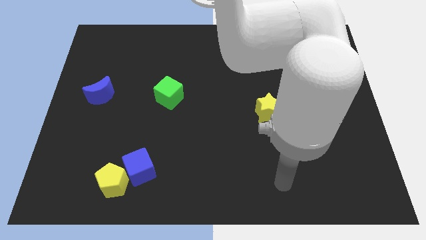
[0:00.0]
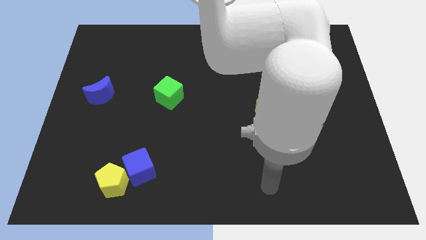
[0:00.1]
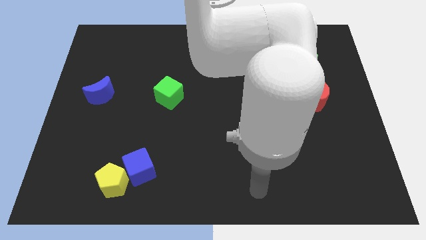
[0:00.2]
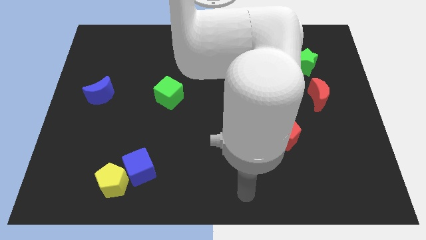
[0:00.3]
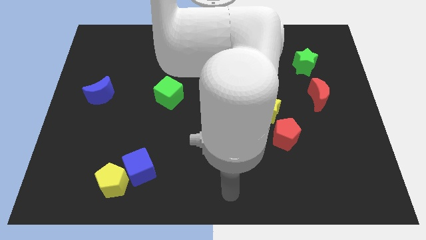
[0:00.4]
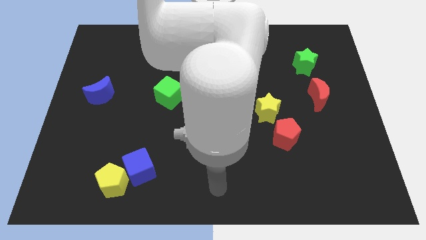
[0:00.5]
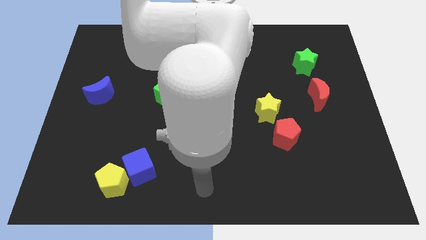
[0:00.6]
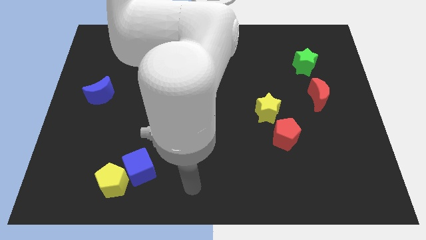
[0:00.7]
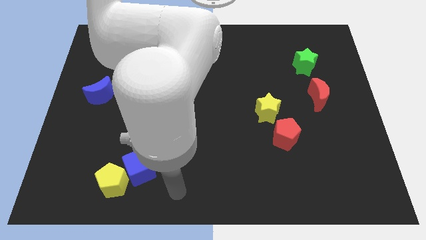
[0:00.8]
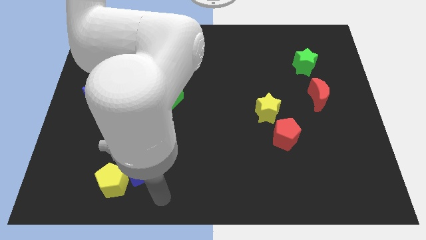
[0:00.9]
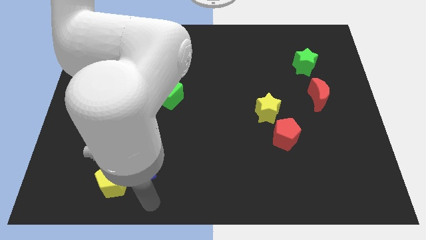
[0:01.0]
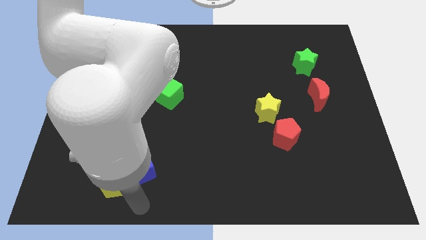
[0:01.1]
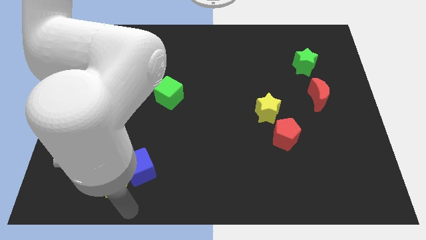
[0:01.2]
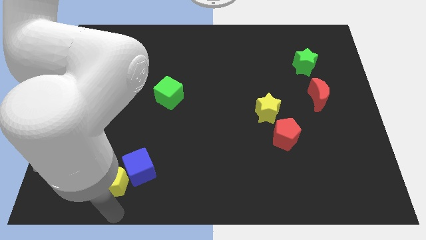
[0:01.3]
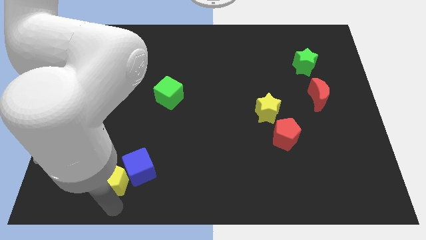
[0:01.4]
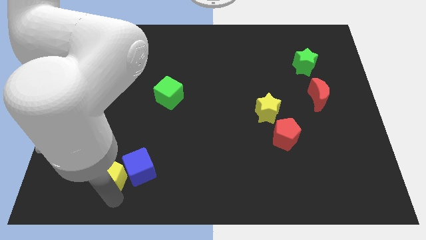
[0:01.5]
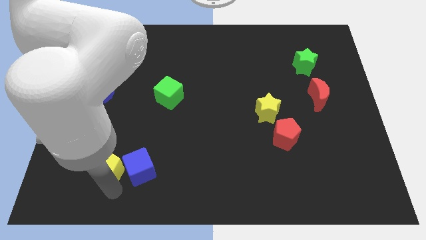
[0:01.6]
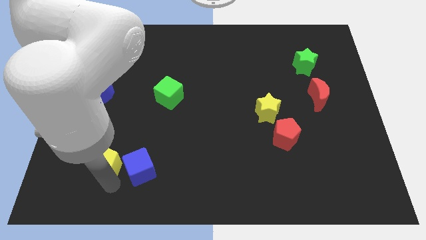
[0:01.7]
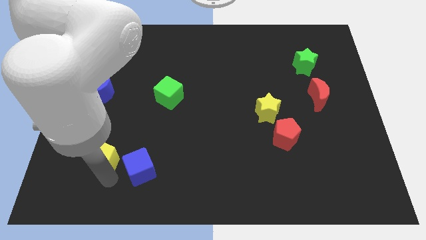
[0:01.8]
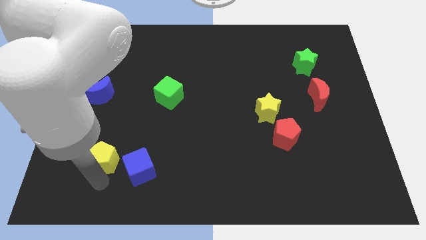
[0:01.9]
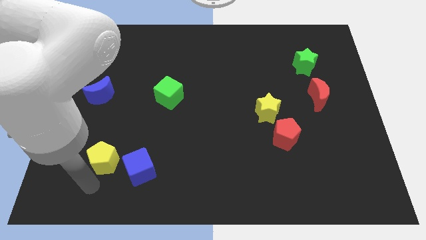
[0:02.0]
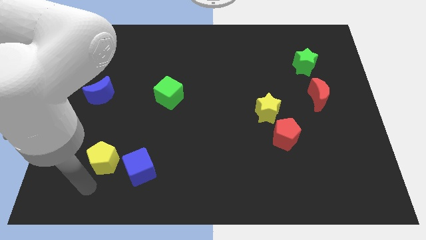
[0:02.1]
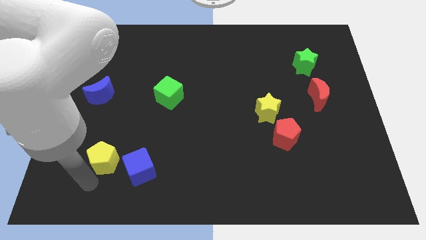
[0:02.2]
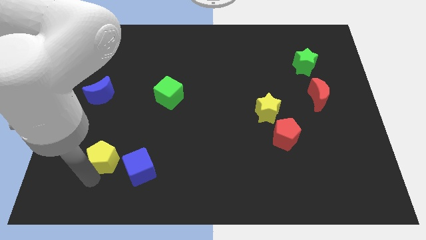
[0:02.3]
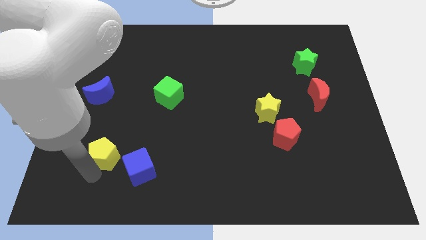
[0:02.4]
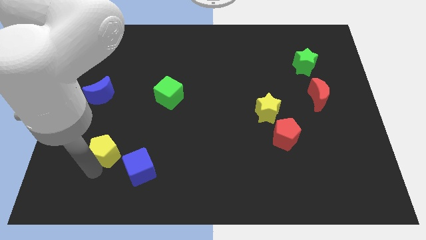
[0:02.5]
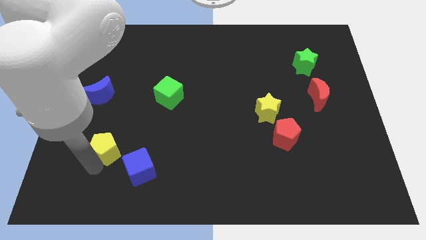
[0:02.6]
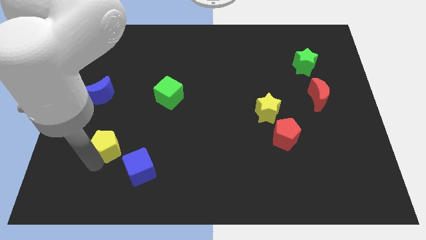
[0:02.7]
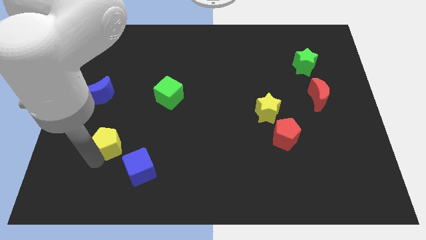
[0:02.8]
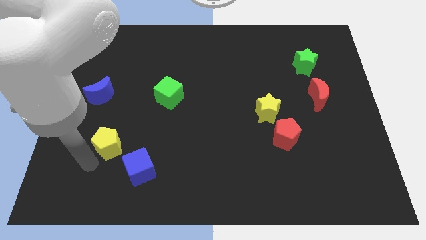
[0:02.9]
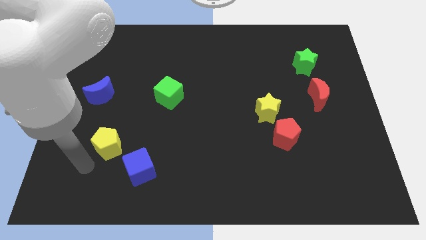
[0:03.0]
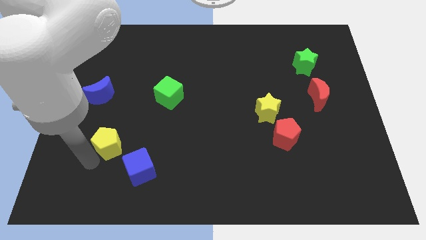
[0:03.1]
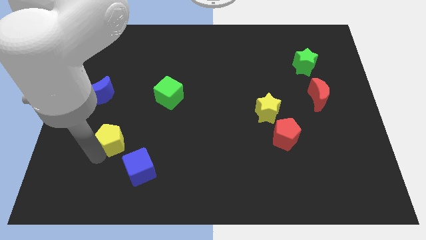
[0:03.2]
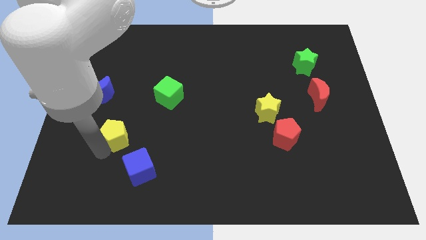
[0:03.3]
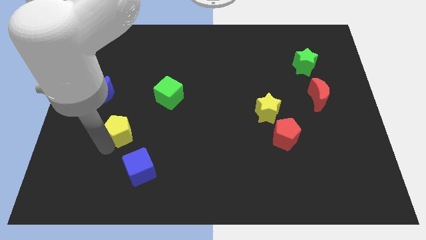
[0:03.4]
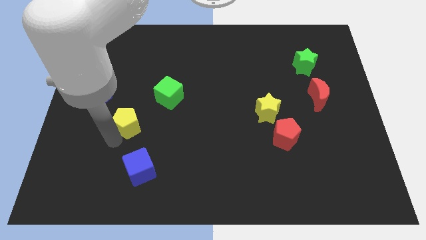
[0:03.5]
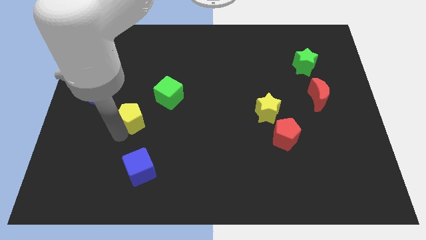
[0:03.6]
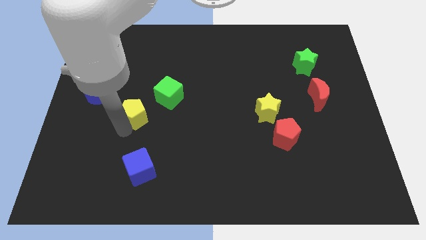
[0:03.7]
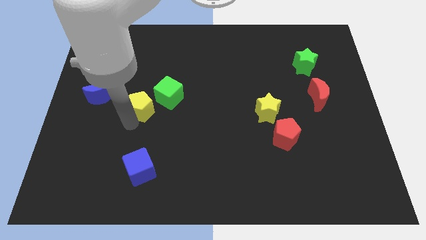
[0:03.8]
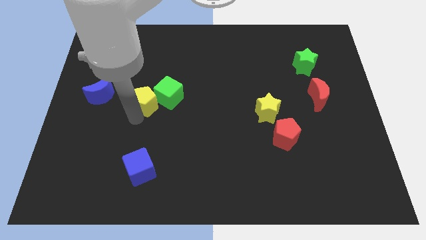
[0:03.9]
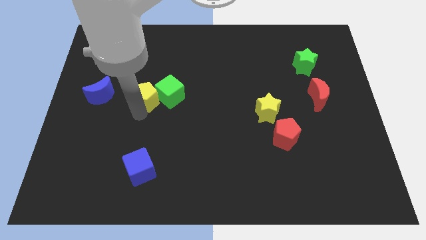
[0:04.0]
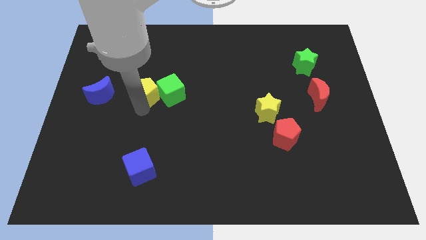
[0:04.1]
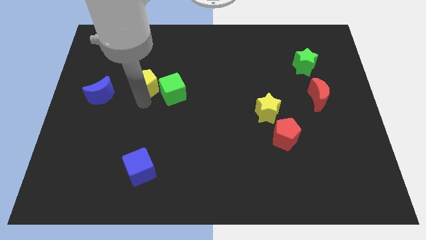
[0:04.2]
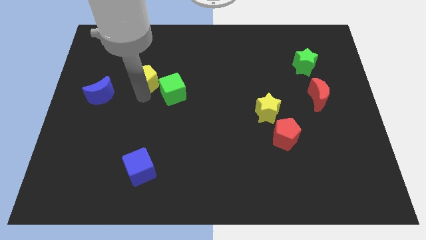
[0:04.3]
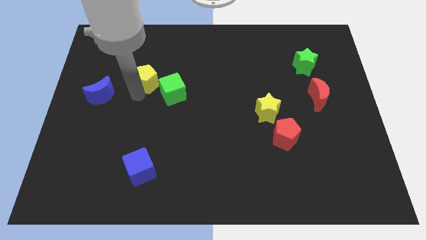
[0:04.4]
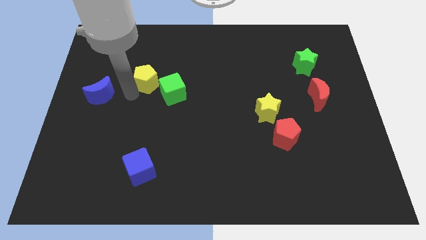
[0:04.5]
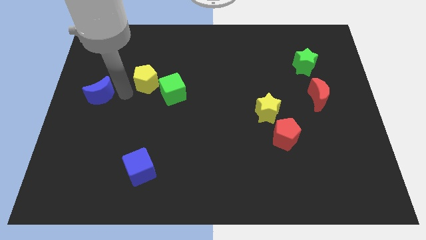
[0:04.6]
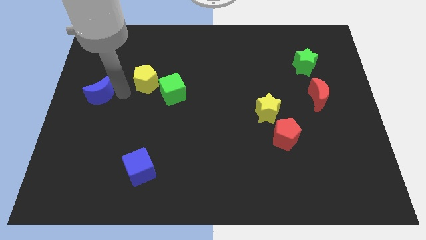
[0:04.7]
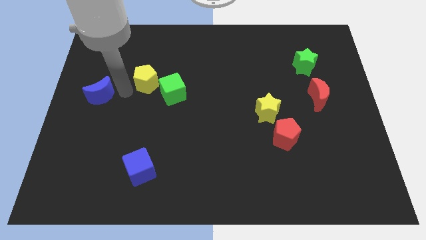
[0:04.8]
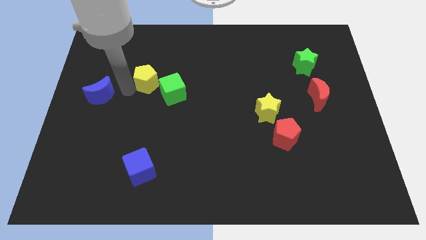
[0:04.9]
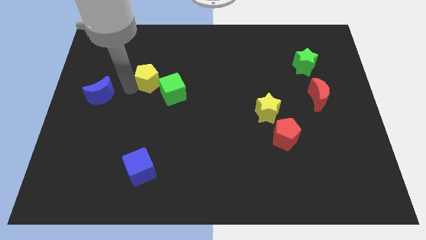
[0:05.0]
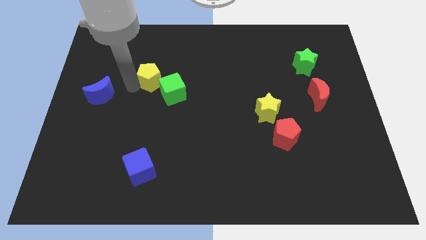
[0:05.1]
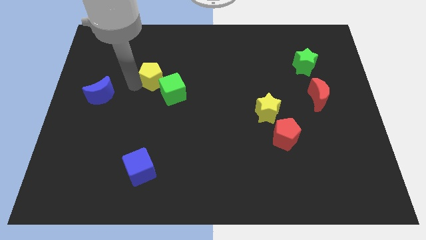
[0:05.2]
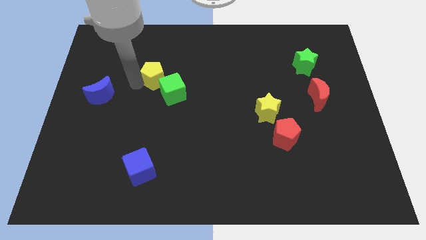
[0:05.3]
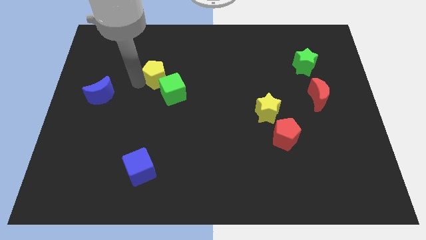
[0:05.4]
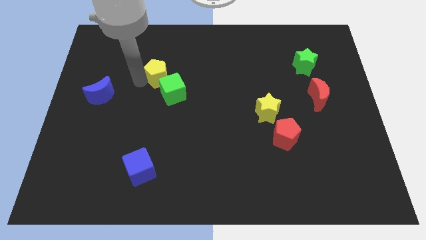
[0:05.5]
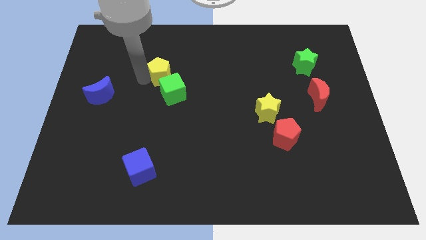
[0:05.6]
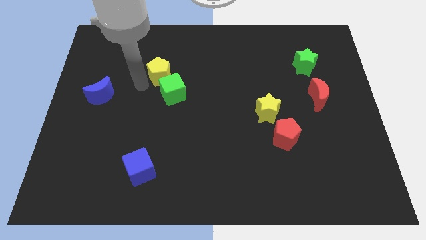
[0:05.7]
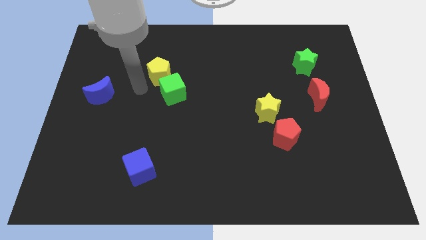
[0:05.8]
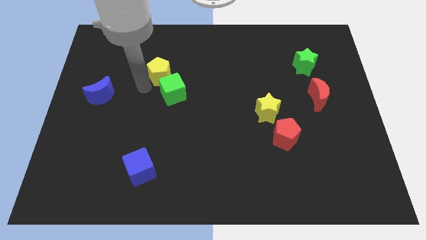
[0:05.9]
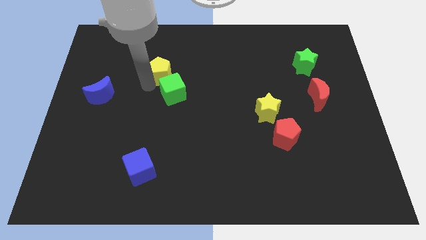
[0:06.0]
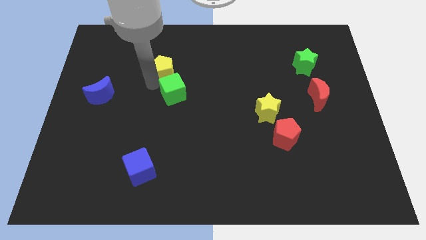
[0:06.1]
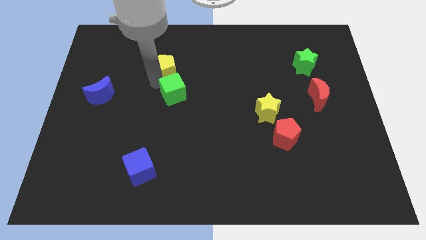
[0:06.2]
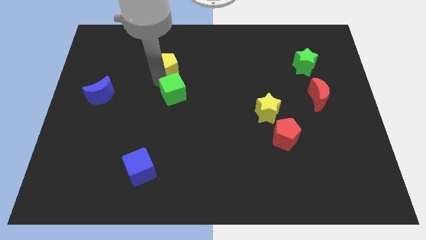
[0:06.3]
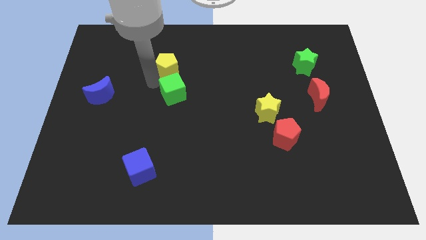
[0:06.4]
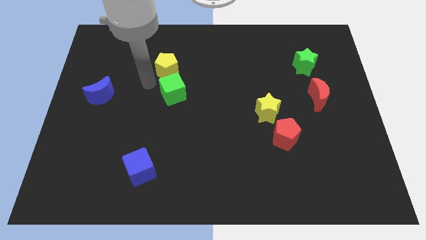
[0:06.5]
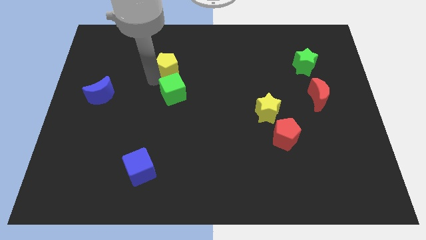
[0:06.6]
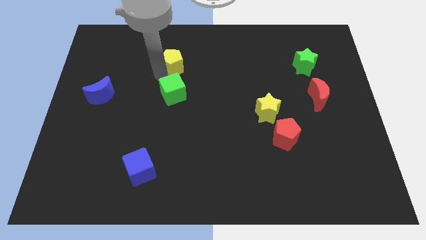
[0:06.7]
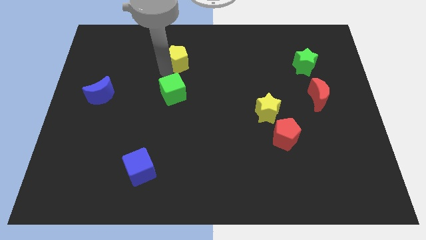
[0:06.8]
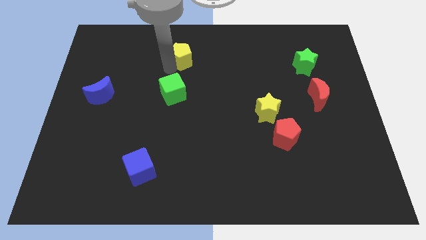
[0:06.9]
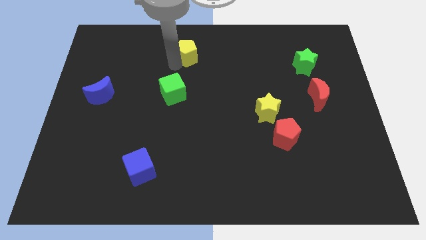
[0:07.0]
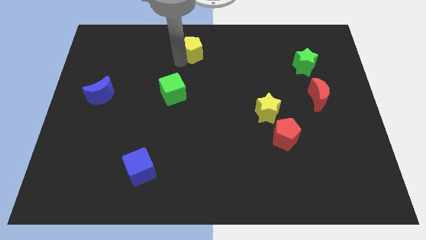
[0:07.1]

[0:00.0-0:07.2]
push the yellow pentagon to the towards your base

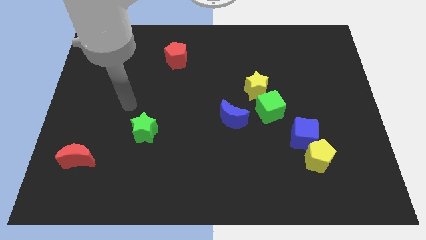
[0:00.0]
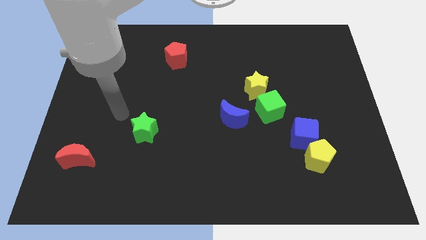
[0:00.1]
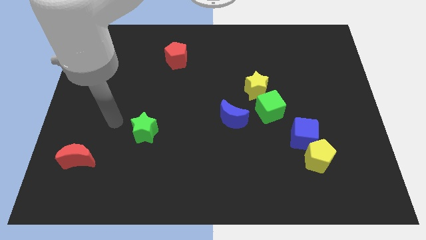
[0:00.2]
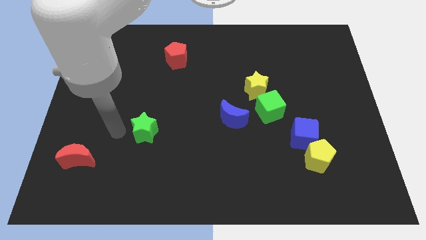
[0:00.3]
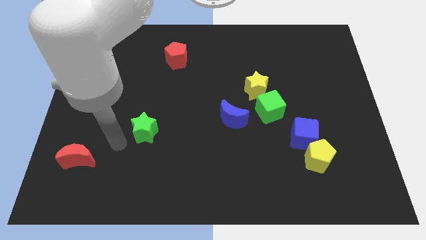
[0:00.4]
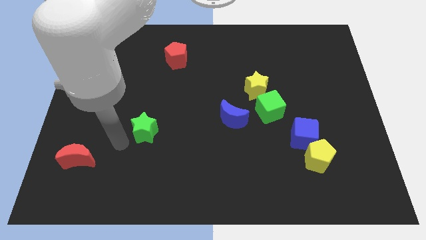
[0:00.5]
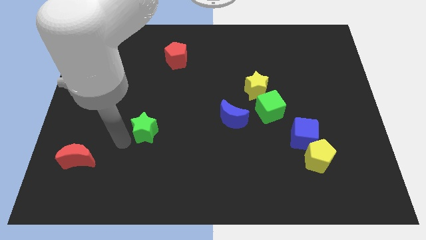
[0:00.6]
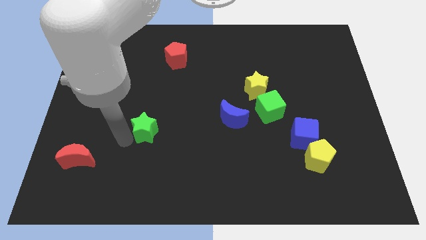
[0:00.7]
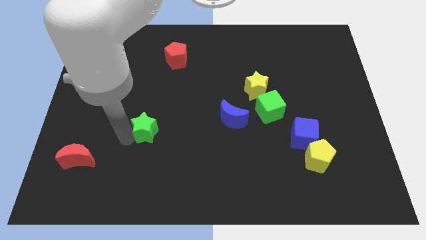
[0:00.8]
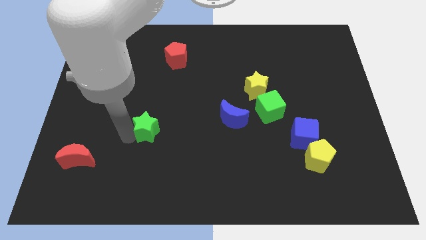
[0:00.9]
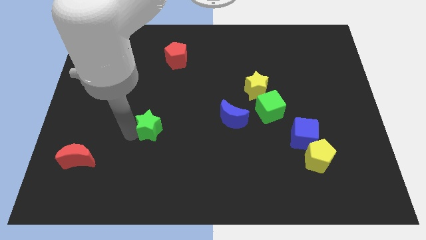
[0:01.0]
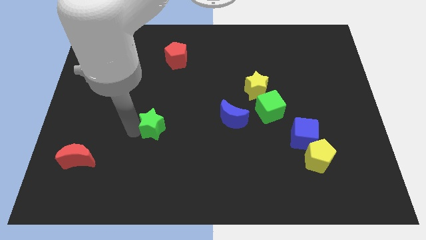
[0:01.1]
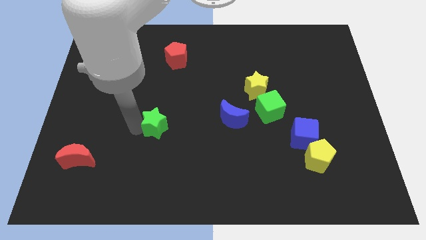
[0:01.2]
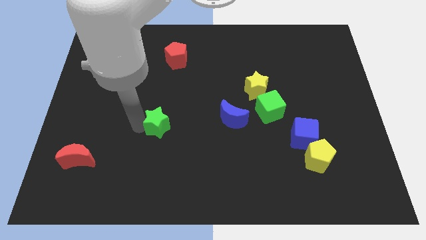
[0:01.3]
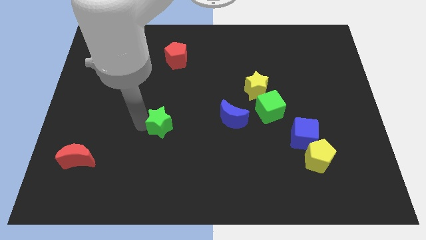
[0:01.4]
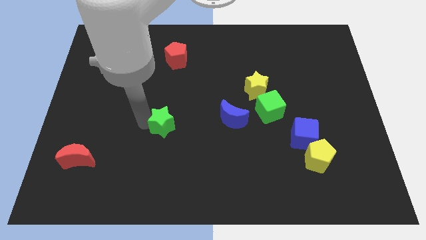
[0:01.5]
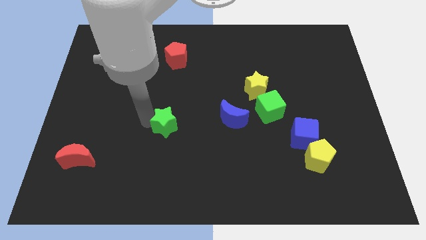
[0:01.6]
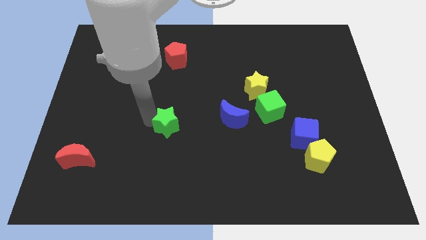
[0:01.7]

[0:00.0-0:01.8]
put the green star to the center of the board
